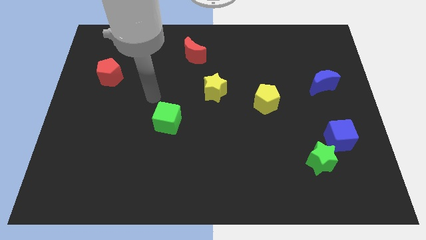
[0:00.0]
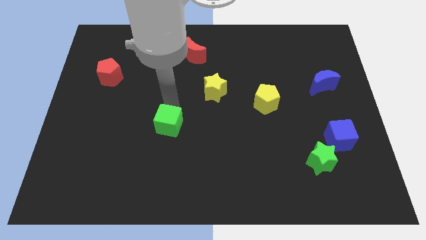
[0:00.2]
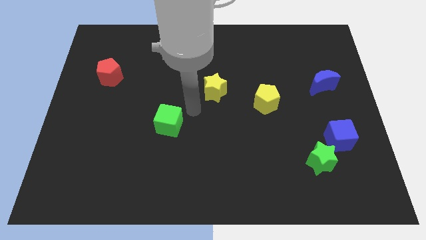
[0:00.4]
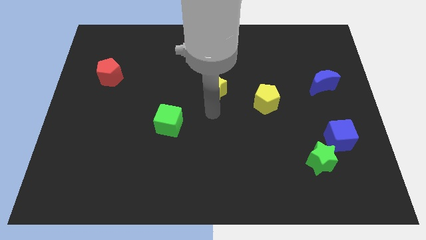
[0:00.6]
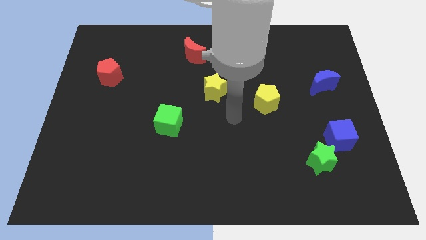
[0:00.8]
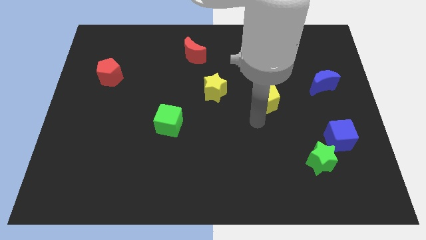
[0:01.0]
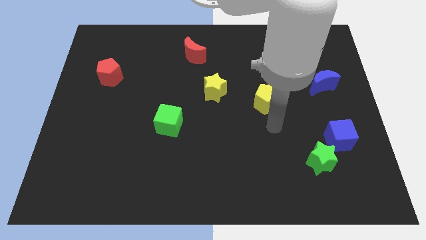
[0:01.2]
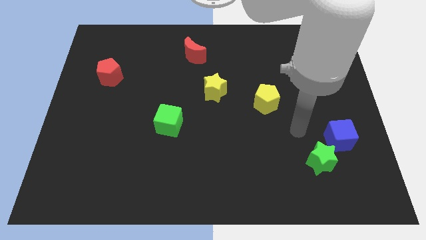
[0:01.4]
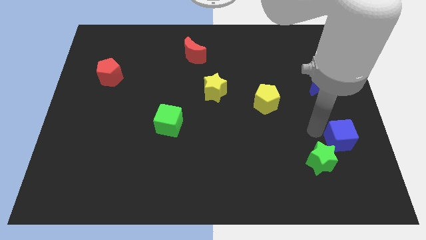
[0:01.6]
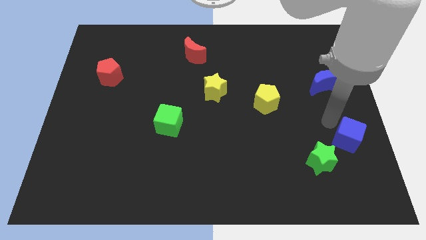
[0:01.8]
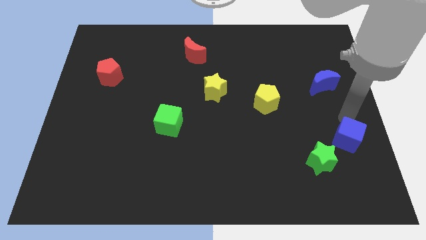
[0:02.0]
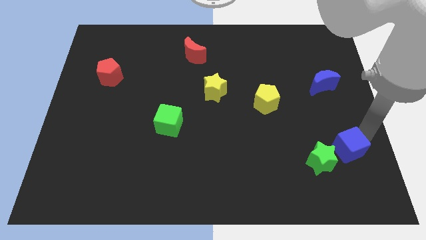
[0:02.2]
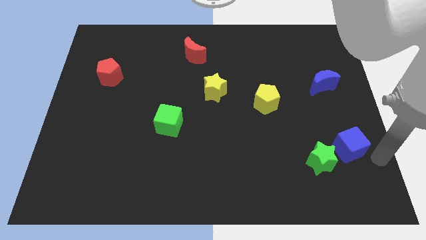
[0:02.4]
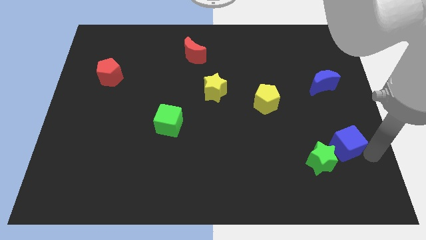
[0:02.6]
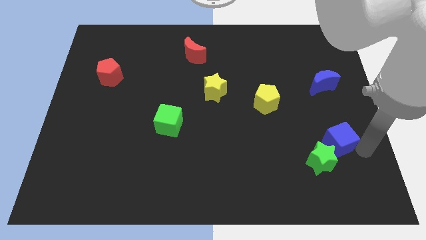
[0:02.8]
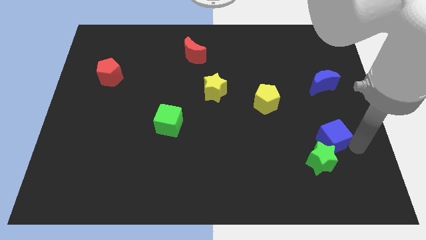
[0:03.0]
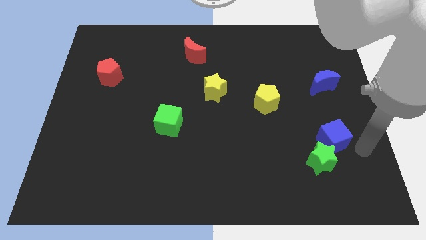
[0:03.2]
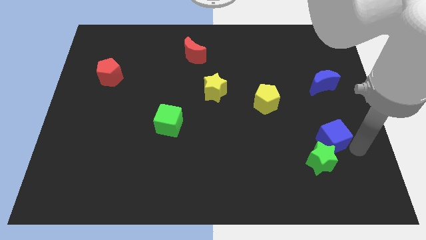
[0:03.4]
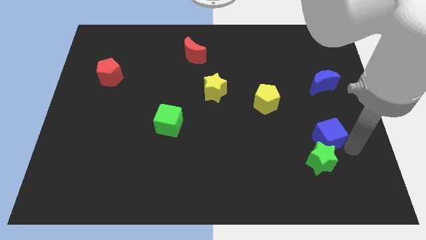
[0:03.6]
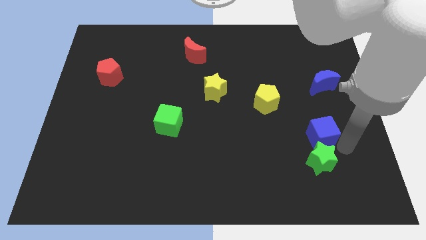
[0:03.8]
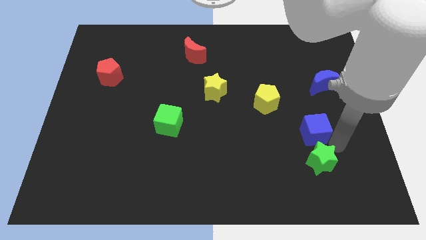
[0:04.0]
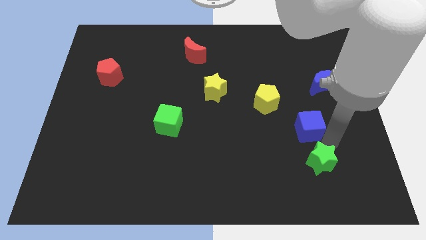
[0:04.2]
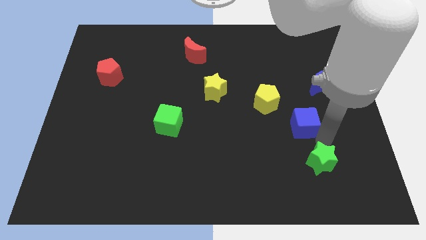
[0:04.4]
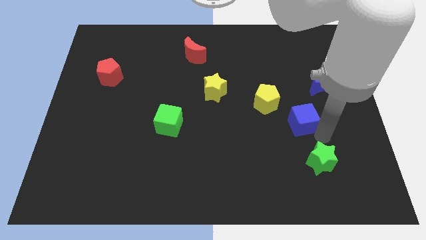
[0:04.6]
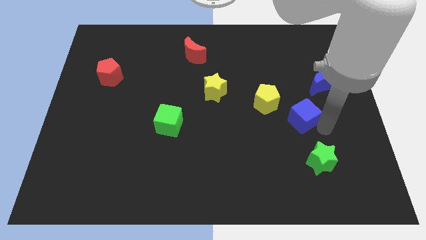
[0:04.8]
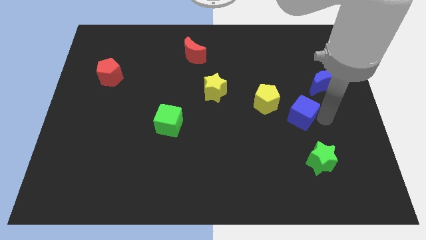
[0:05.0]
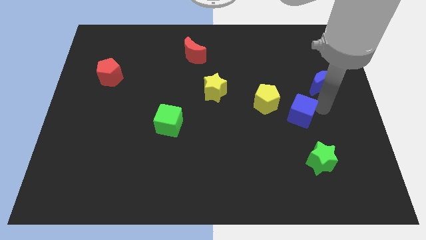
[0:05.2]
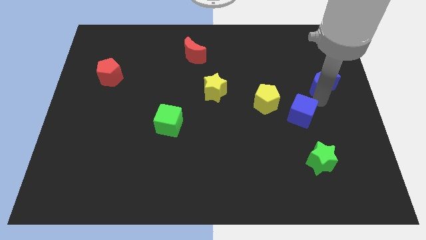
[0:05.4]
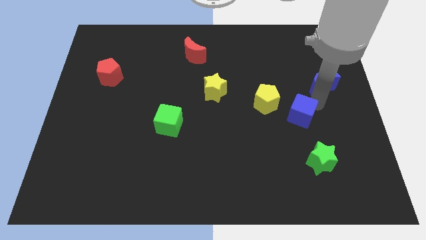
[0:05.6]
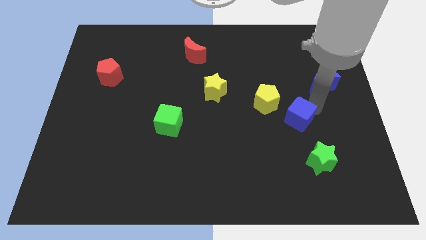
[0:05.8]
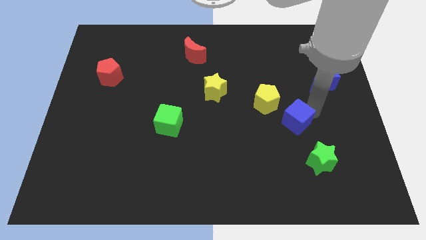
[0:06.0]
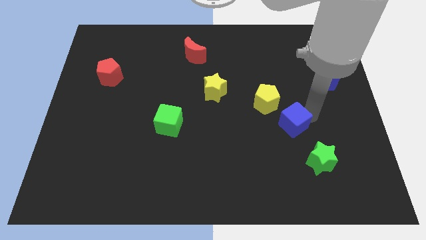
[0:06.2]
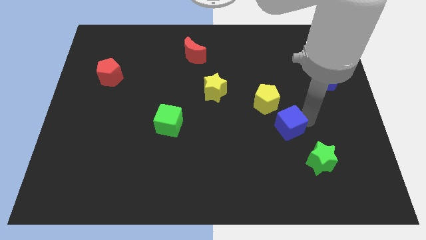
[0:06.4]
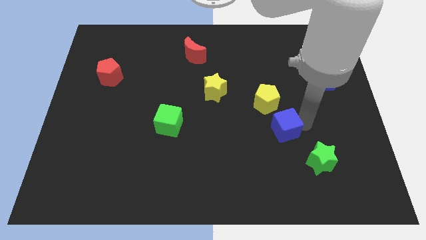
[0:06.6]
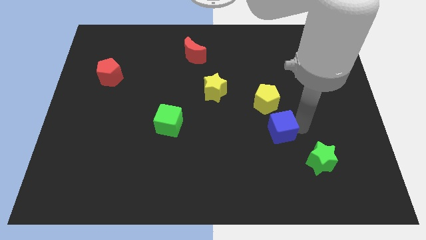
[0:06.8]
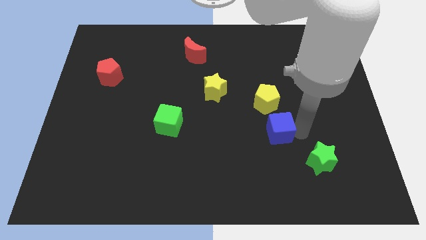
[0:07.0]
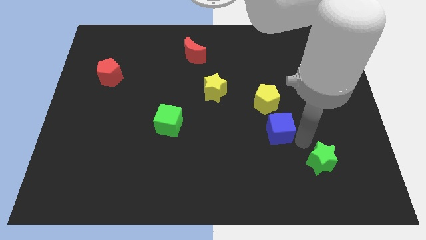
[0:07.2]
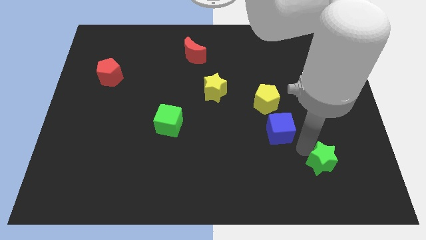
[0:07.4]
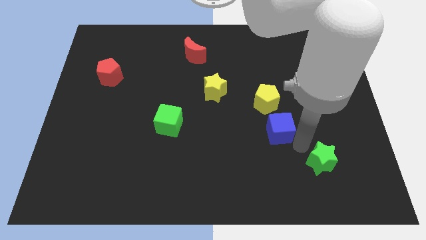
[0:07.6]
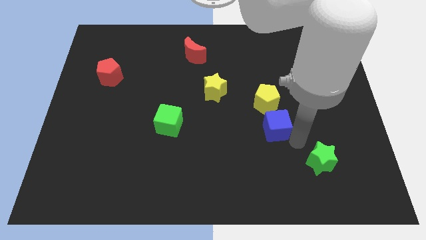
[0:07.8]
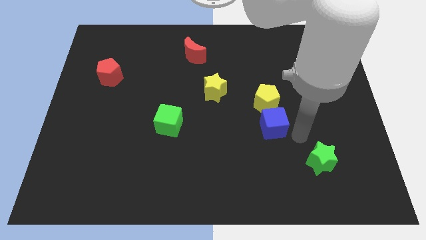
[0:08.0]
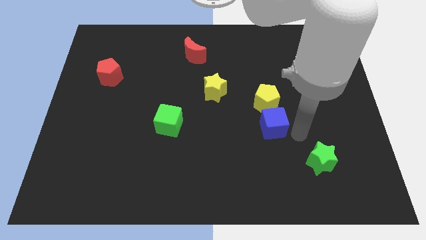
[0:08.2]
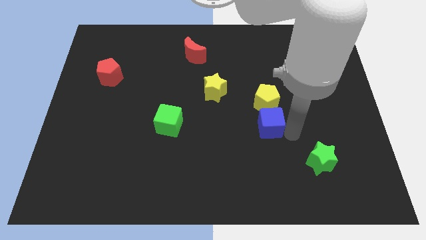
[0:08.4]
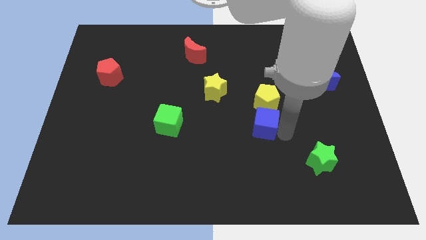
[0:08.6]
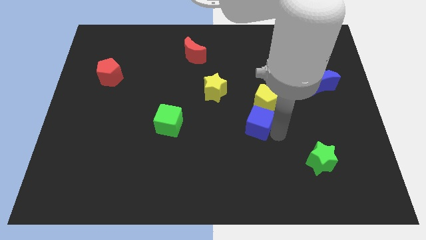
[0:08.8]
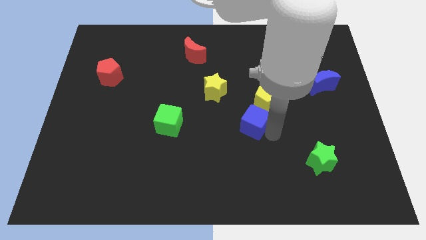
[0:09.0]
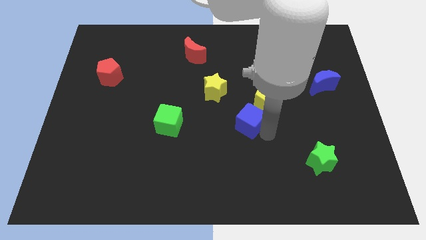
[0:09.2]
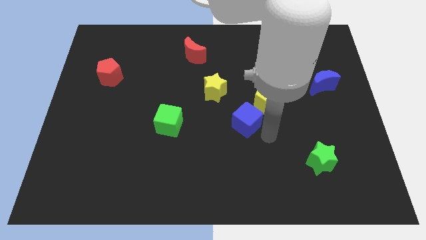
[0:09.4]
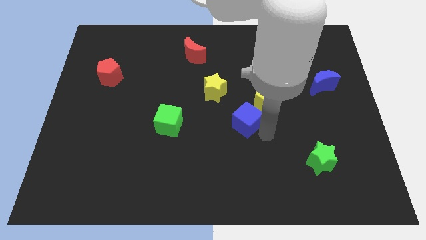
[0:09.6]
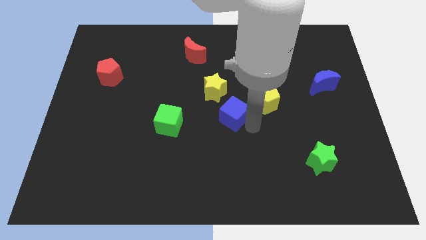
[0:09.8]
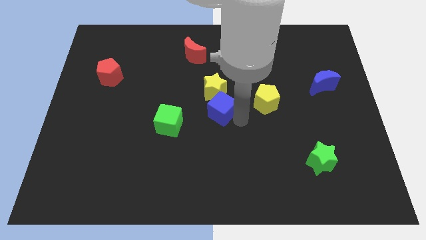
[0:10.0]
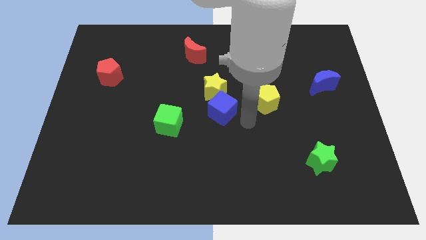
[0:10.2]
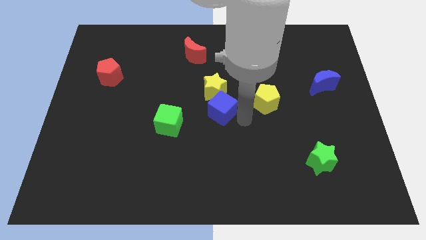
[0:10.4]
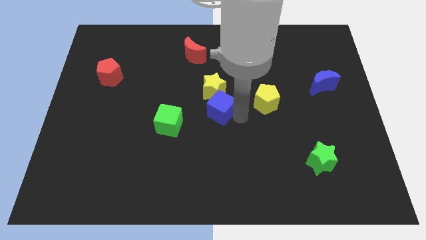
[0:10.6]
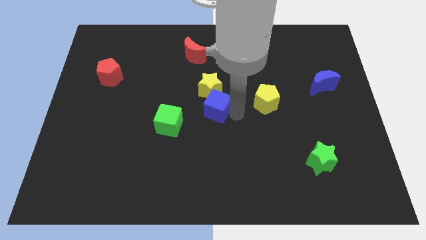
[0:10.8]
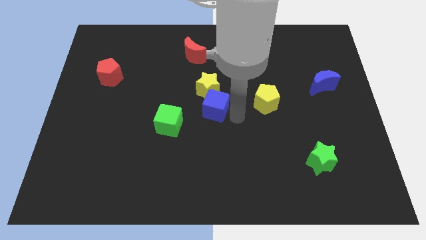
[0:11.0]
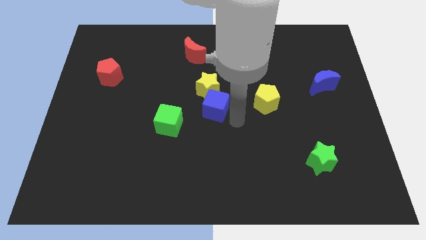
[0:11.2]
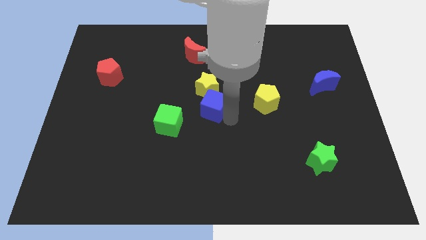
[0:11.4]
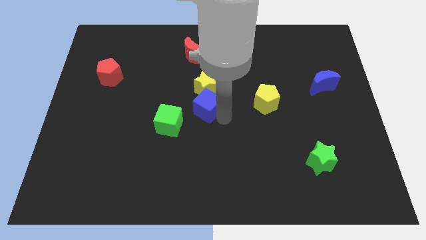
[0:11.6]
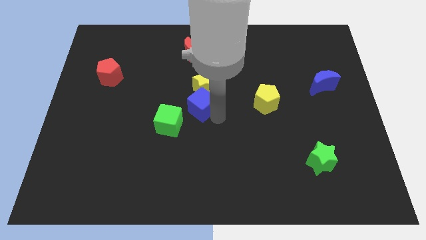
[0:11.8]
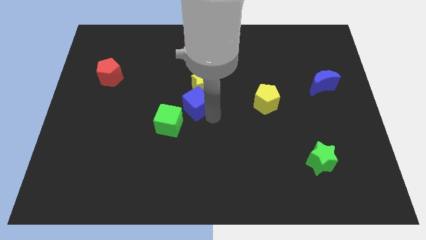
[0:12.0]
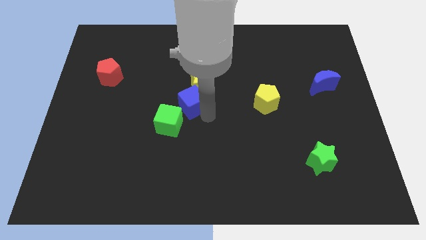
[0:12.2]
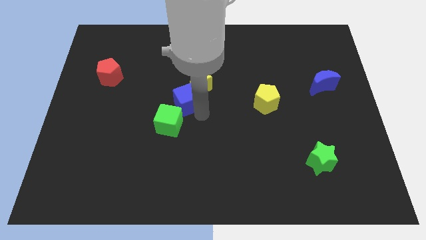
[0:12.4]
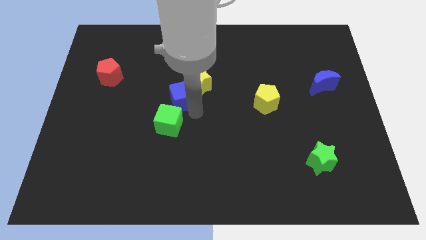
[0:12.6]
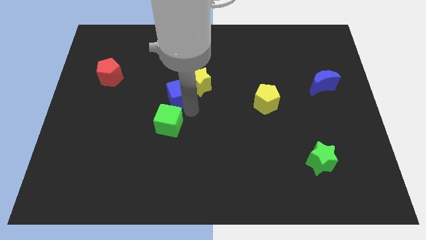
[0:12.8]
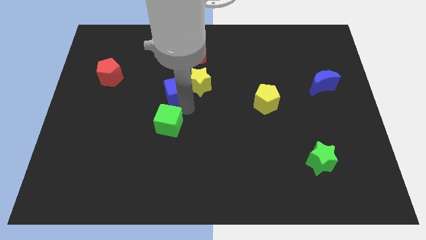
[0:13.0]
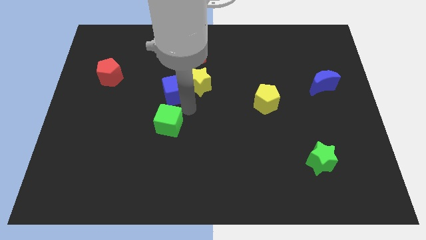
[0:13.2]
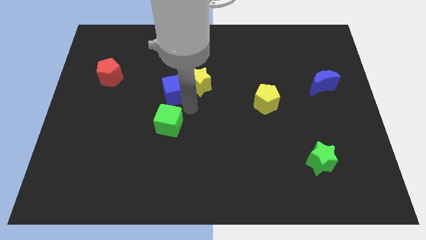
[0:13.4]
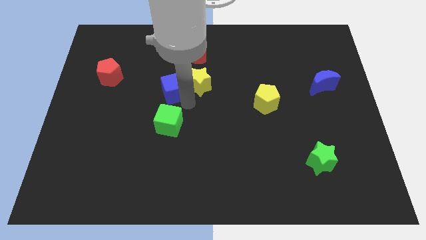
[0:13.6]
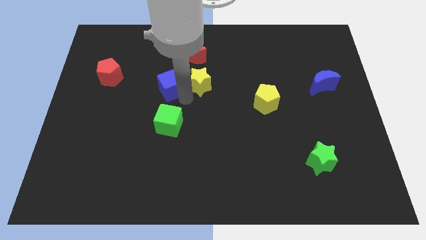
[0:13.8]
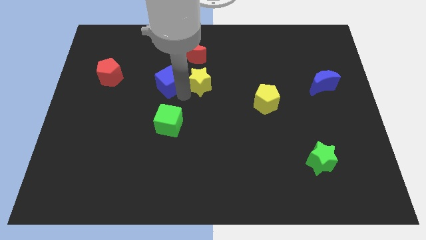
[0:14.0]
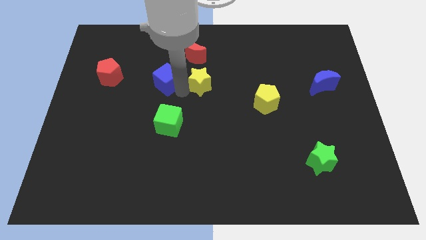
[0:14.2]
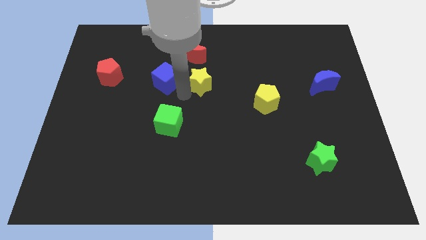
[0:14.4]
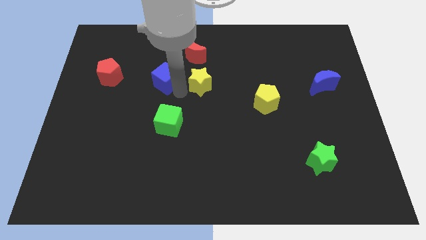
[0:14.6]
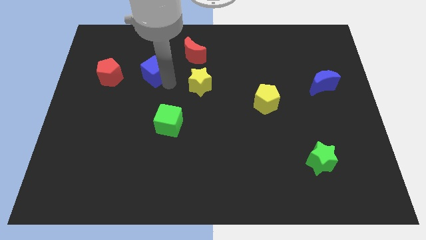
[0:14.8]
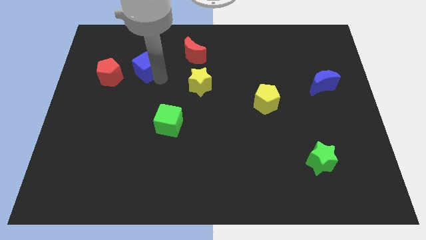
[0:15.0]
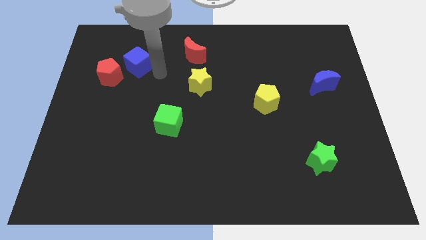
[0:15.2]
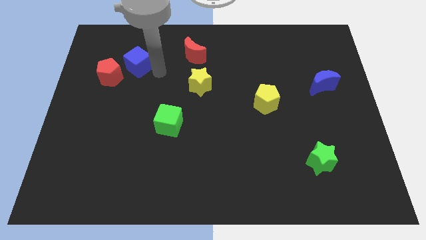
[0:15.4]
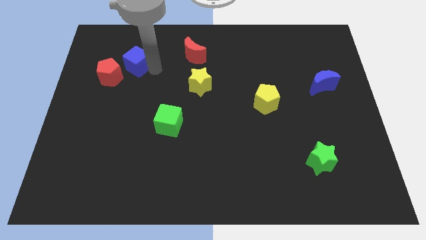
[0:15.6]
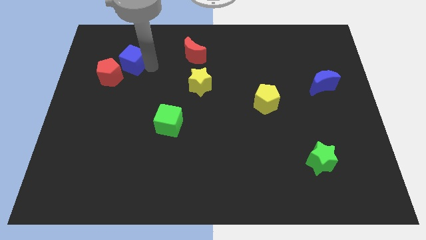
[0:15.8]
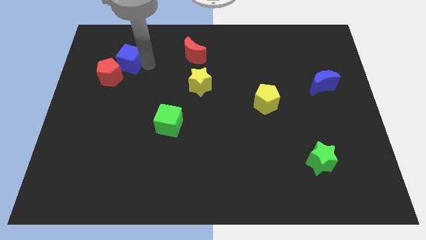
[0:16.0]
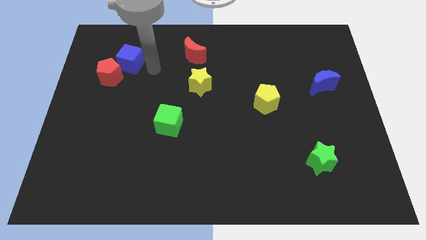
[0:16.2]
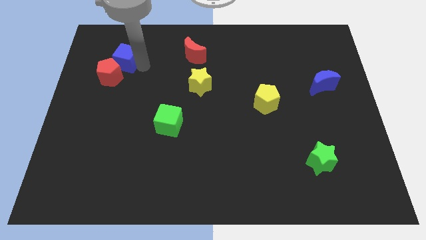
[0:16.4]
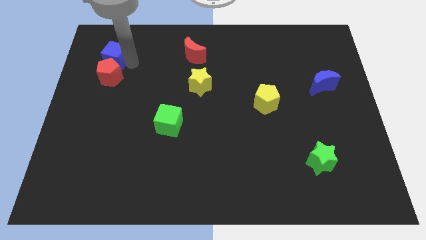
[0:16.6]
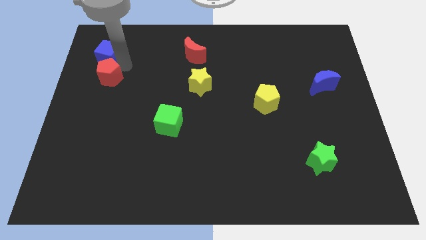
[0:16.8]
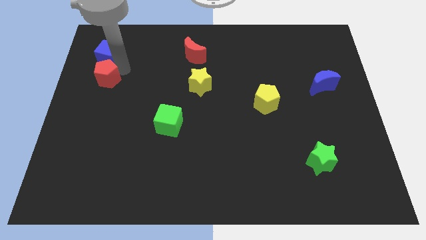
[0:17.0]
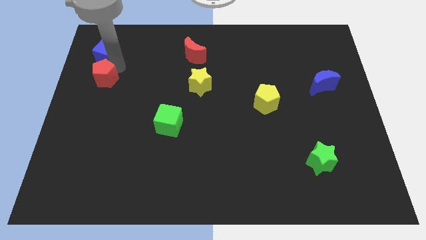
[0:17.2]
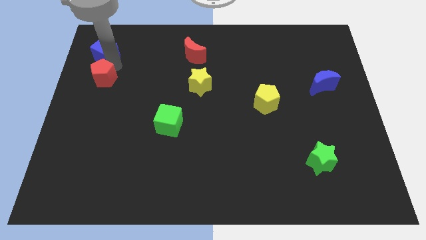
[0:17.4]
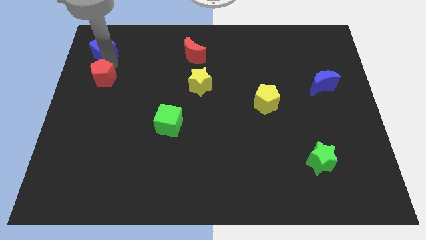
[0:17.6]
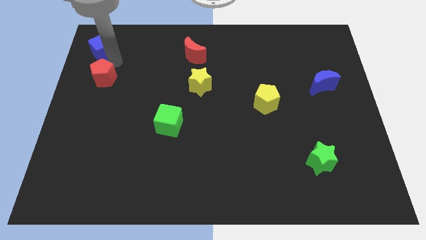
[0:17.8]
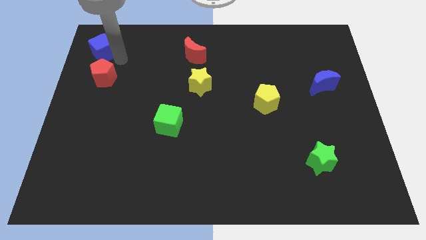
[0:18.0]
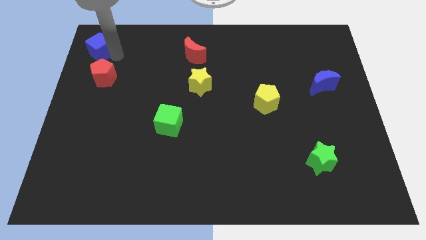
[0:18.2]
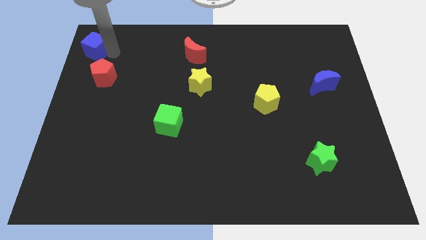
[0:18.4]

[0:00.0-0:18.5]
slide the blue cube to the upper left corner
